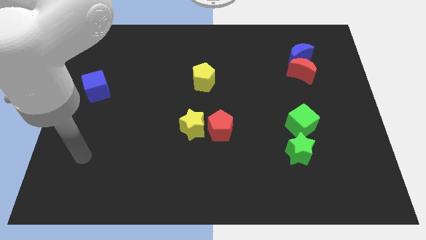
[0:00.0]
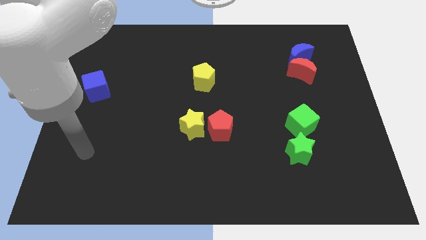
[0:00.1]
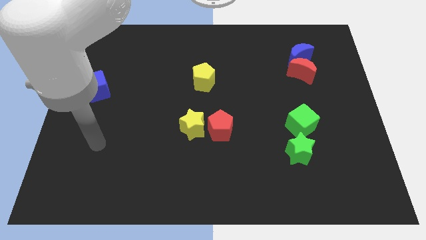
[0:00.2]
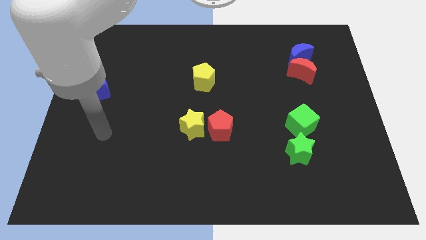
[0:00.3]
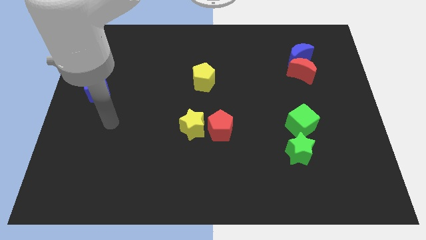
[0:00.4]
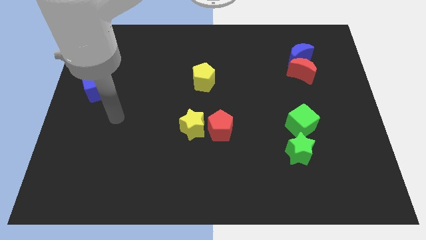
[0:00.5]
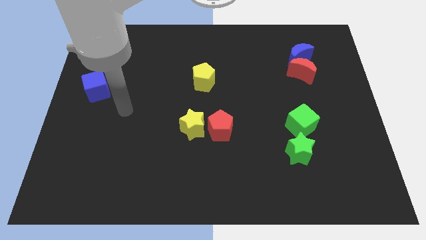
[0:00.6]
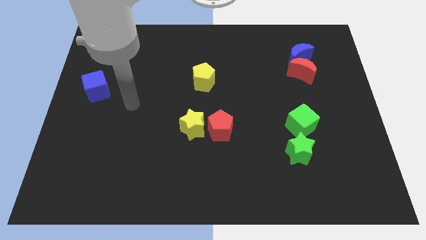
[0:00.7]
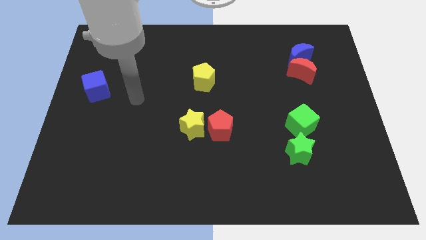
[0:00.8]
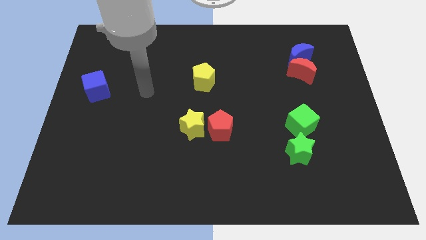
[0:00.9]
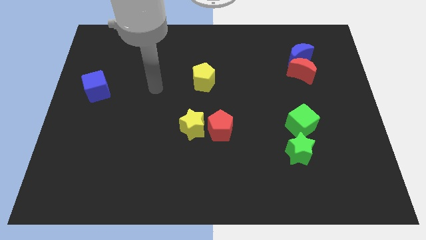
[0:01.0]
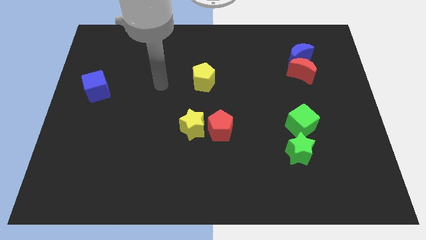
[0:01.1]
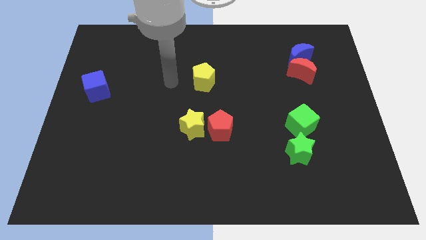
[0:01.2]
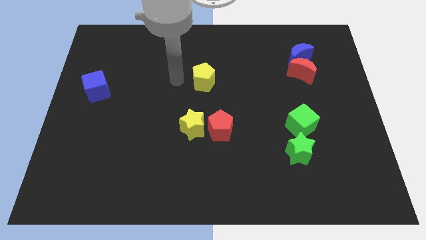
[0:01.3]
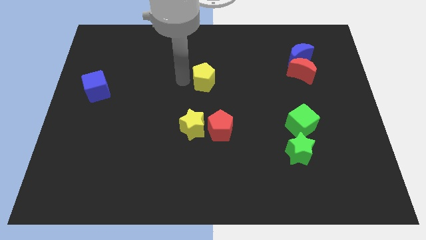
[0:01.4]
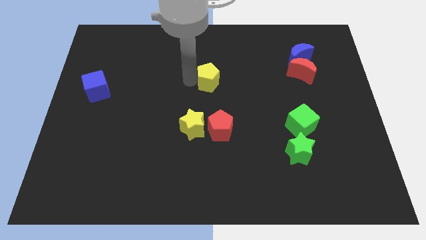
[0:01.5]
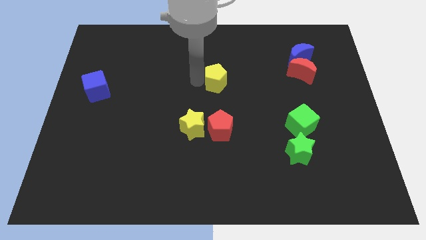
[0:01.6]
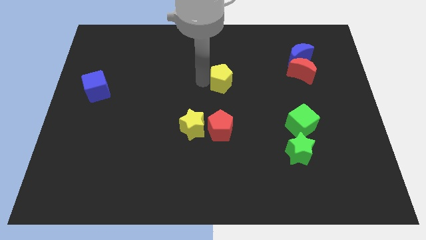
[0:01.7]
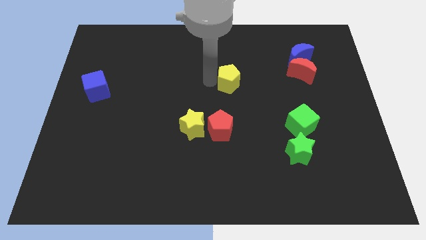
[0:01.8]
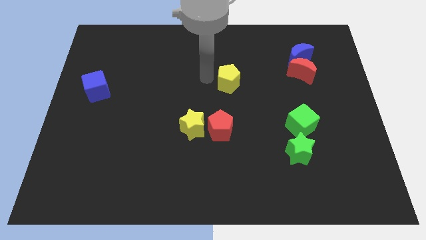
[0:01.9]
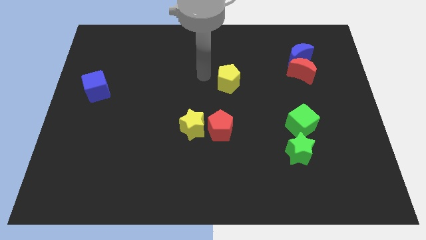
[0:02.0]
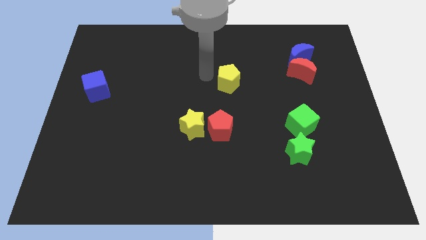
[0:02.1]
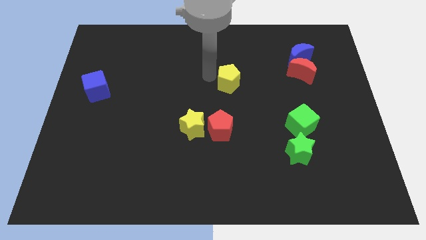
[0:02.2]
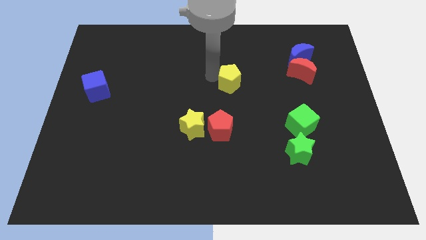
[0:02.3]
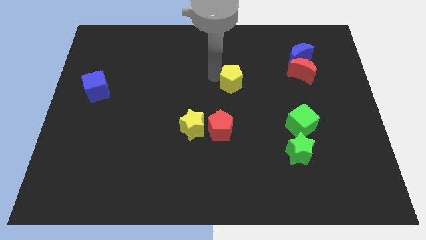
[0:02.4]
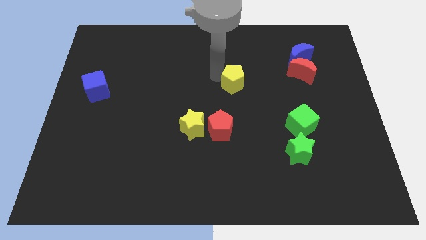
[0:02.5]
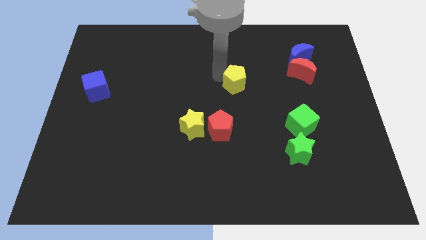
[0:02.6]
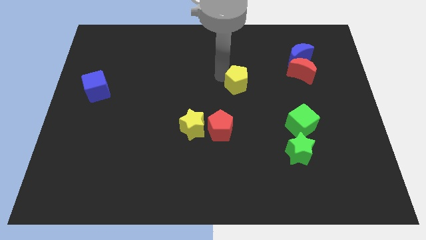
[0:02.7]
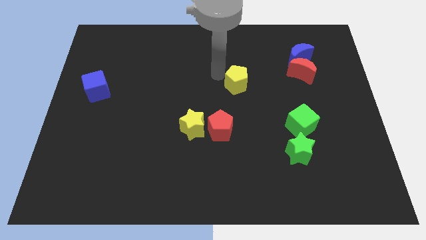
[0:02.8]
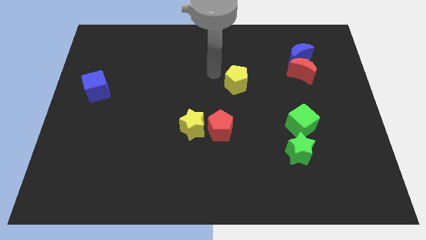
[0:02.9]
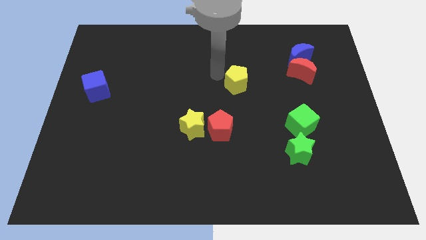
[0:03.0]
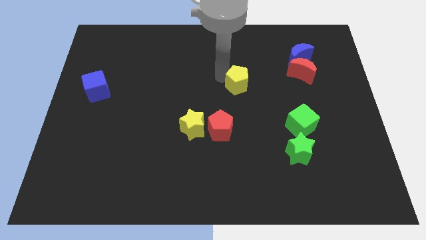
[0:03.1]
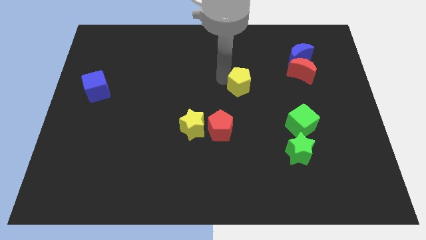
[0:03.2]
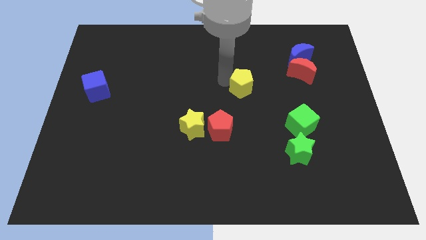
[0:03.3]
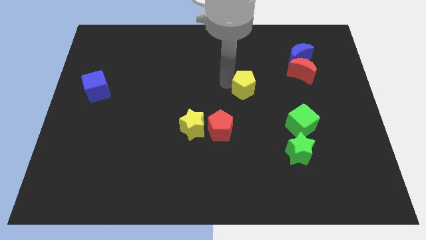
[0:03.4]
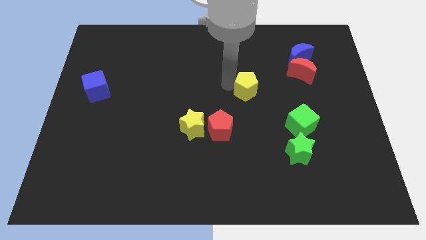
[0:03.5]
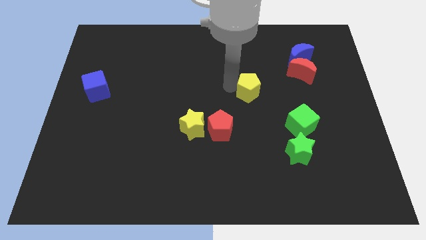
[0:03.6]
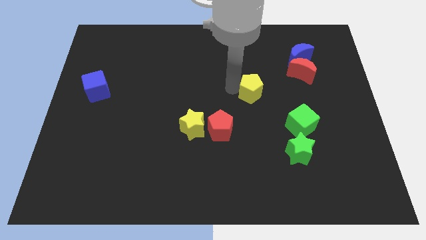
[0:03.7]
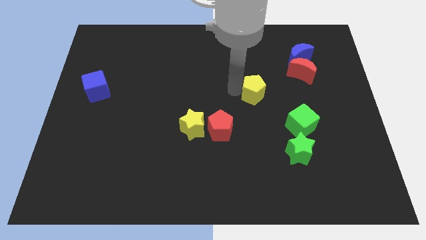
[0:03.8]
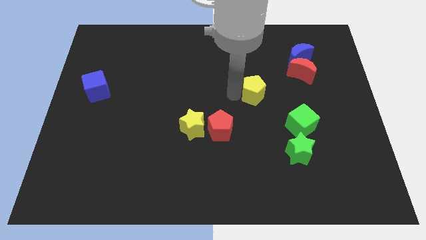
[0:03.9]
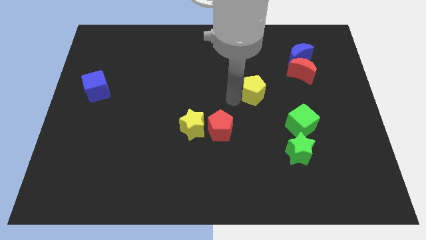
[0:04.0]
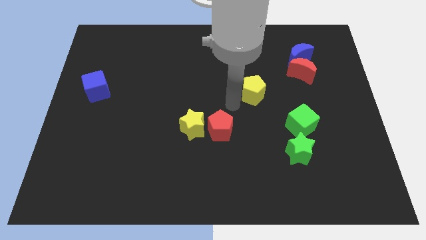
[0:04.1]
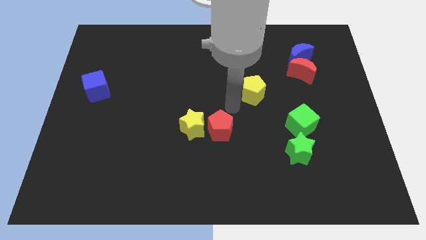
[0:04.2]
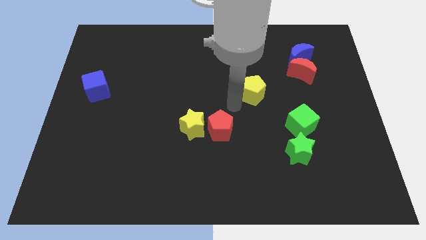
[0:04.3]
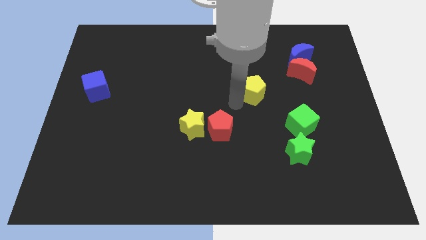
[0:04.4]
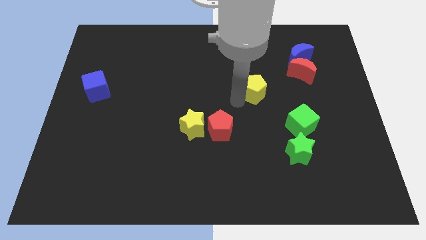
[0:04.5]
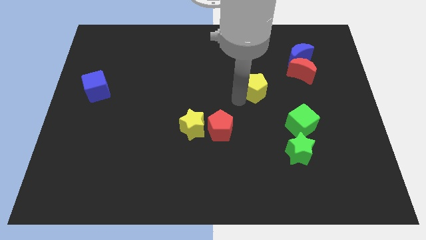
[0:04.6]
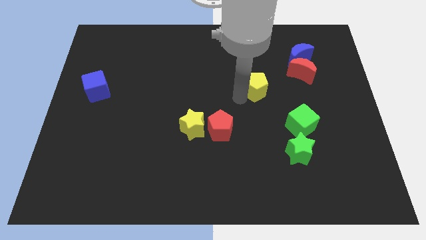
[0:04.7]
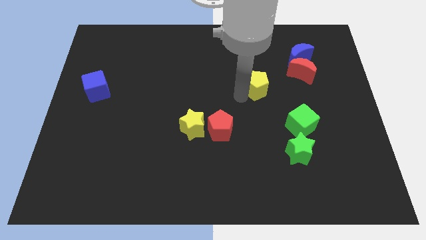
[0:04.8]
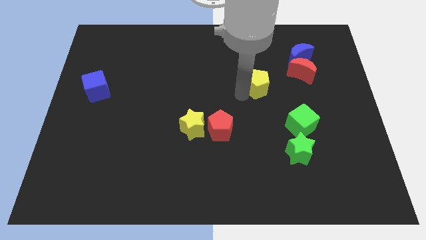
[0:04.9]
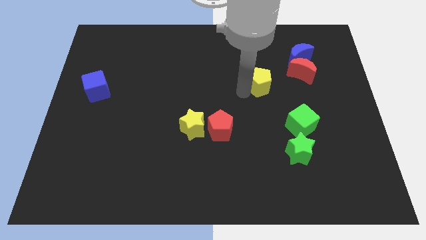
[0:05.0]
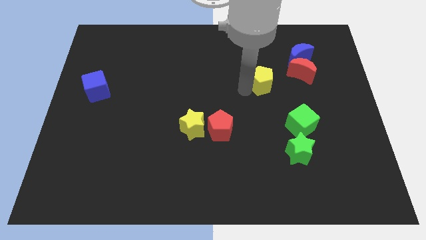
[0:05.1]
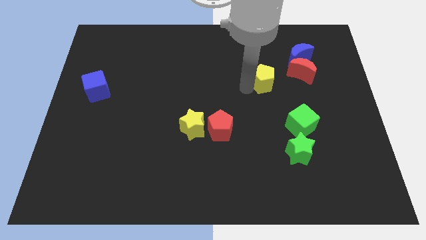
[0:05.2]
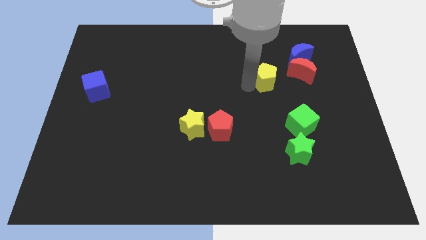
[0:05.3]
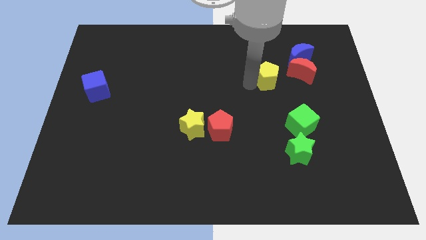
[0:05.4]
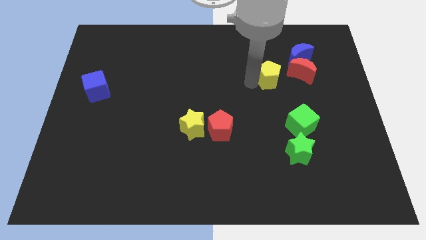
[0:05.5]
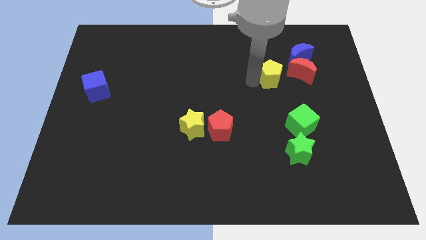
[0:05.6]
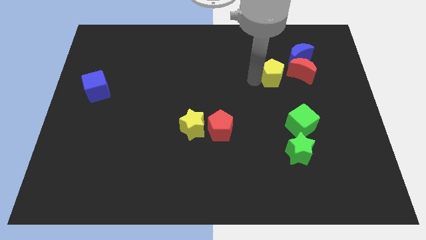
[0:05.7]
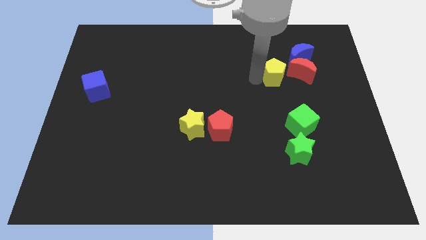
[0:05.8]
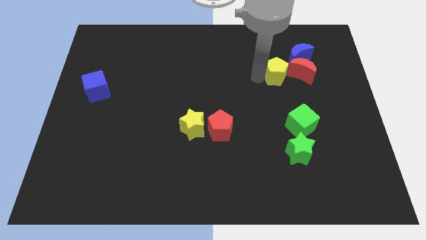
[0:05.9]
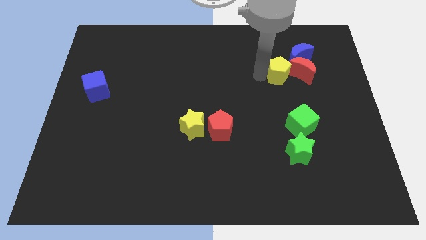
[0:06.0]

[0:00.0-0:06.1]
move the yellow pentagon to the red moon

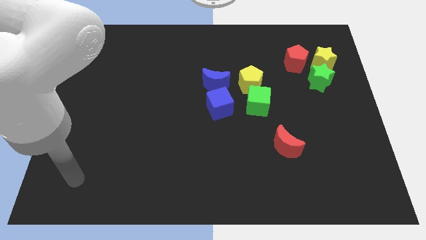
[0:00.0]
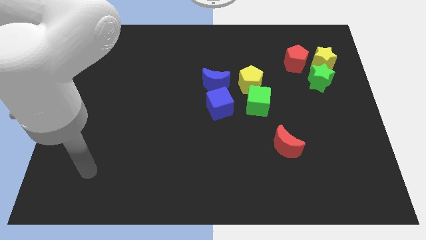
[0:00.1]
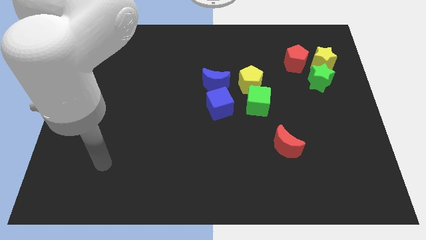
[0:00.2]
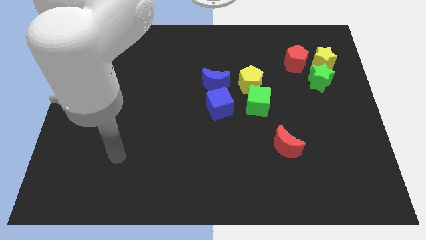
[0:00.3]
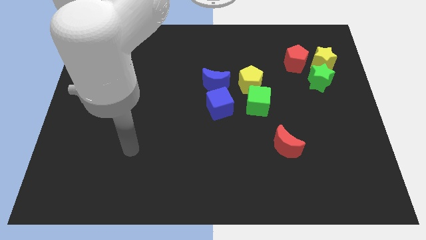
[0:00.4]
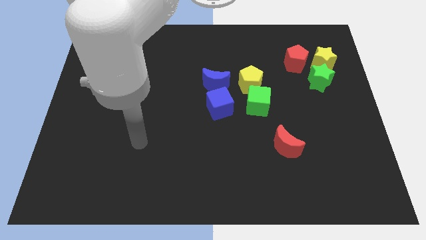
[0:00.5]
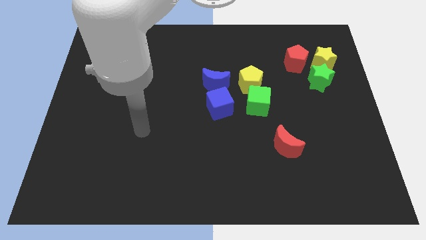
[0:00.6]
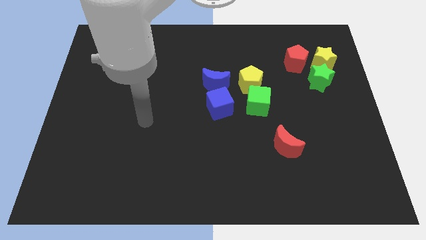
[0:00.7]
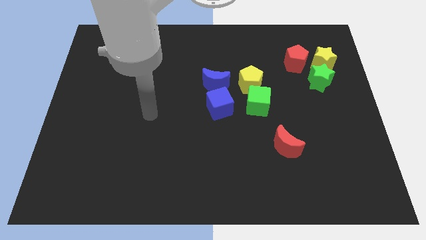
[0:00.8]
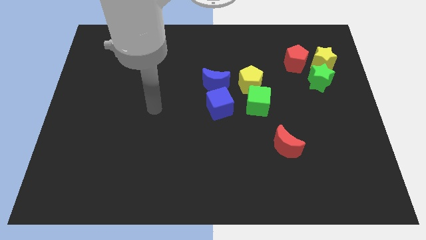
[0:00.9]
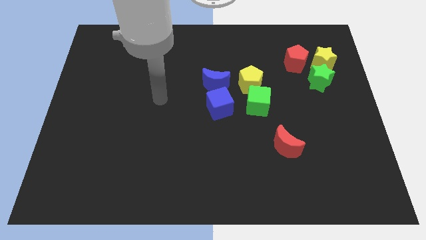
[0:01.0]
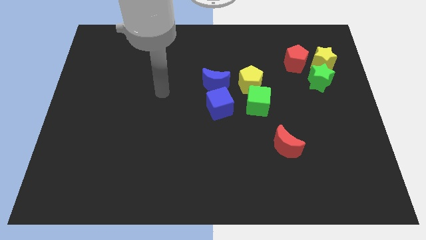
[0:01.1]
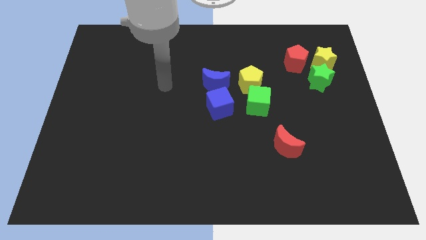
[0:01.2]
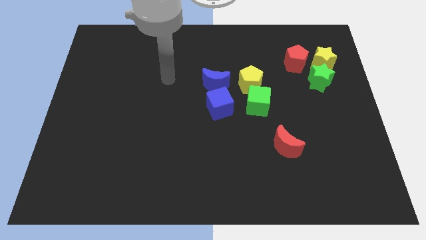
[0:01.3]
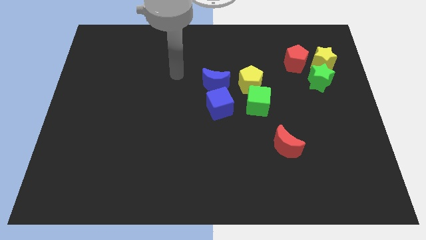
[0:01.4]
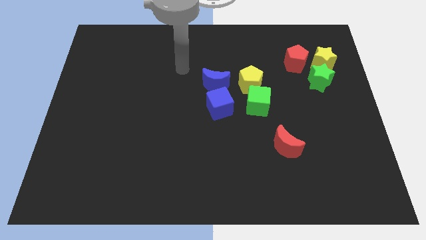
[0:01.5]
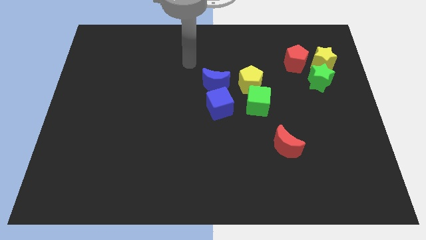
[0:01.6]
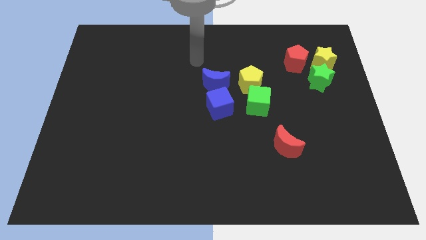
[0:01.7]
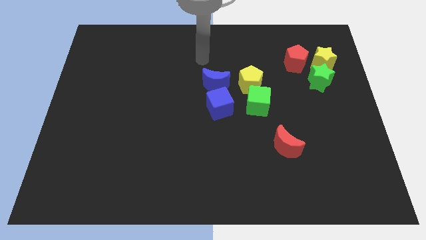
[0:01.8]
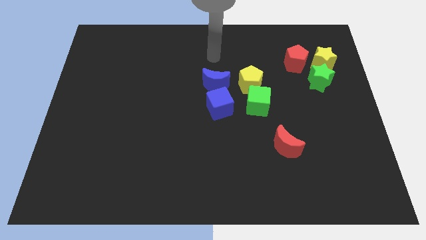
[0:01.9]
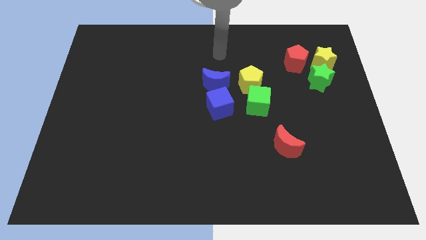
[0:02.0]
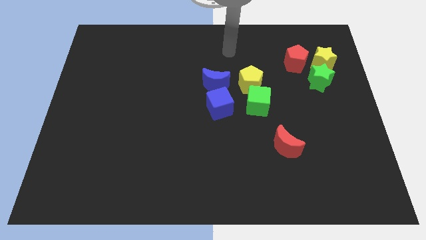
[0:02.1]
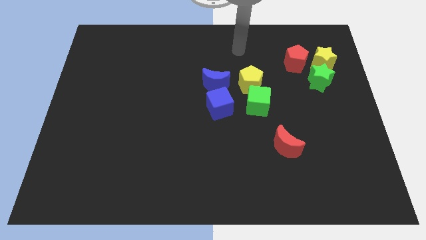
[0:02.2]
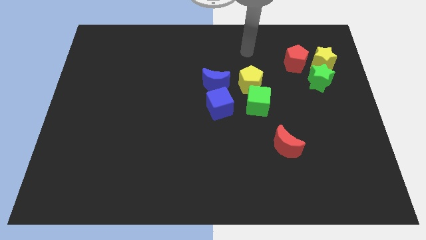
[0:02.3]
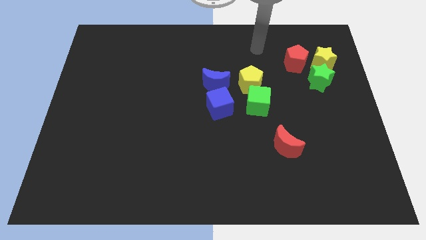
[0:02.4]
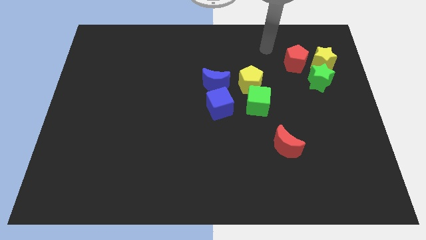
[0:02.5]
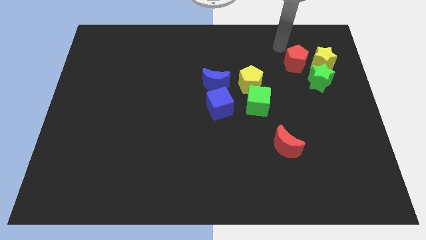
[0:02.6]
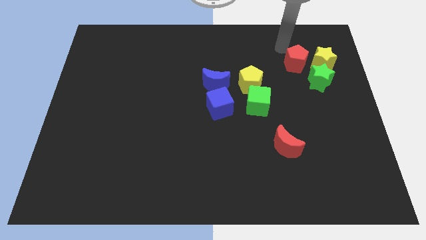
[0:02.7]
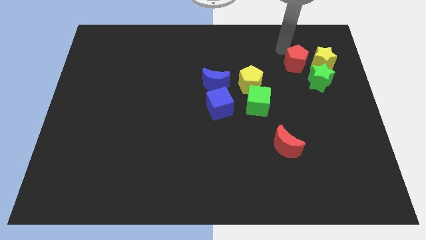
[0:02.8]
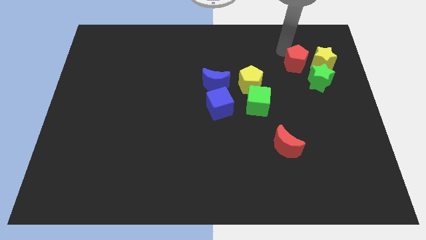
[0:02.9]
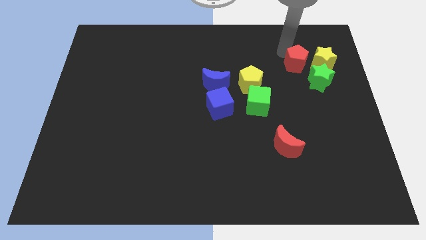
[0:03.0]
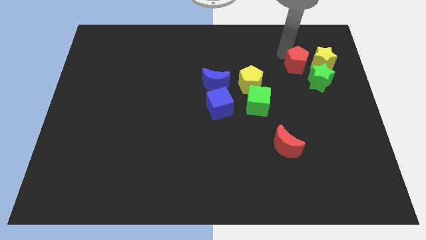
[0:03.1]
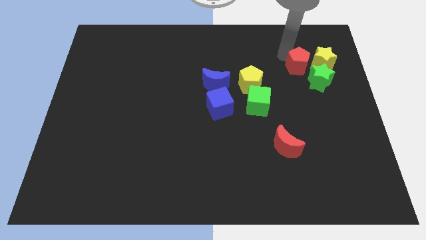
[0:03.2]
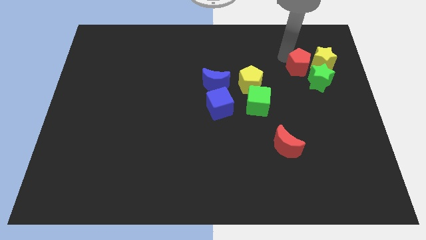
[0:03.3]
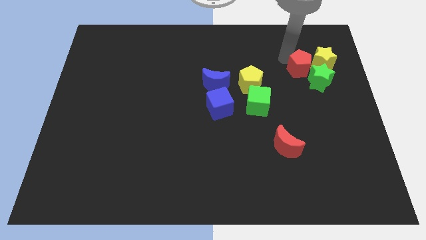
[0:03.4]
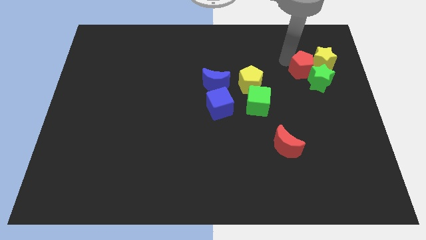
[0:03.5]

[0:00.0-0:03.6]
move the red pentagon close to the green star
